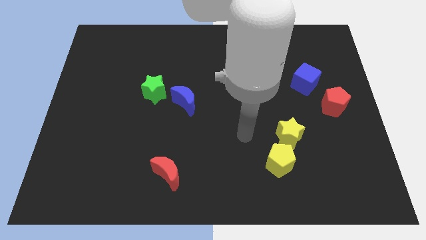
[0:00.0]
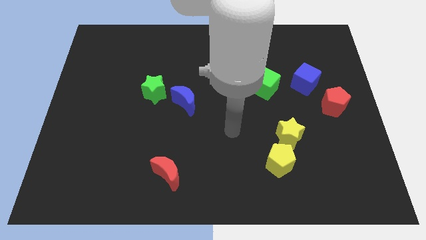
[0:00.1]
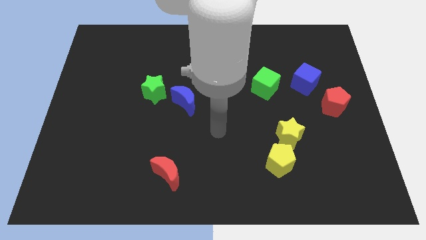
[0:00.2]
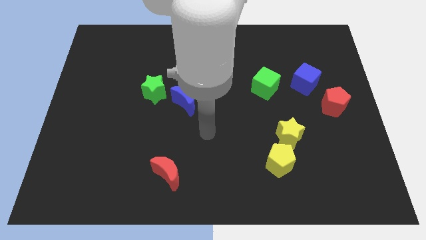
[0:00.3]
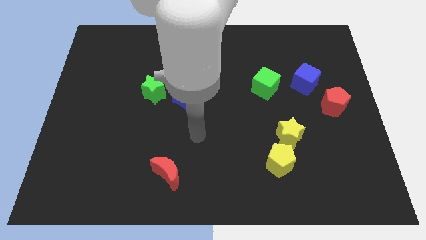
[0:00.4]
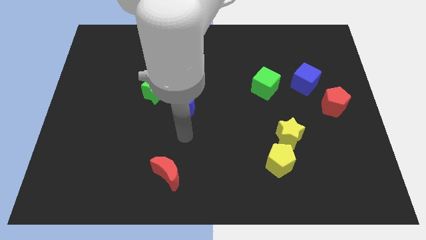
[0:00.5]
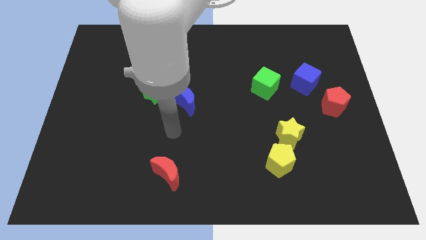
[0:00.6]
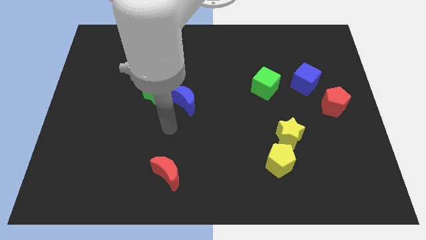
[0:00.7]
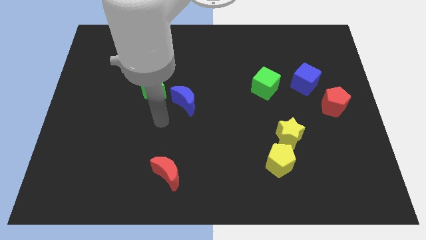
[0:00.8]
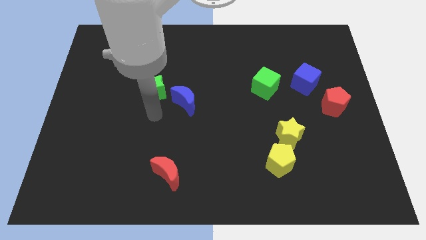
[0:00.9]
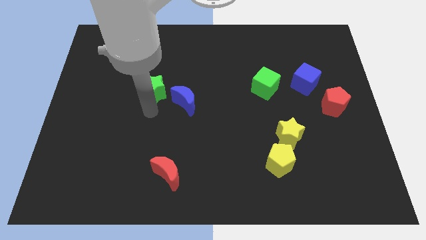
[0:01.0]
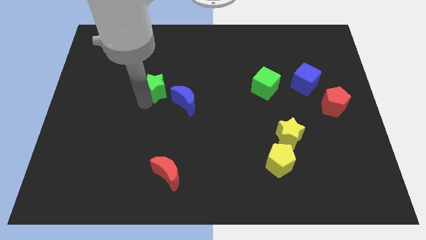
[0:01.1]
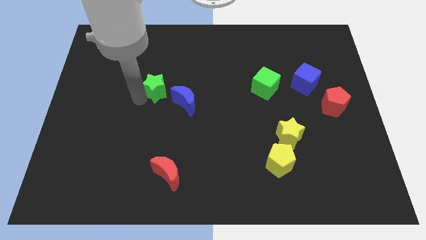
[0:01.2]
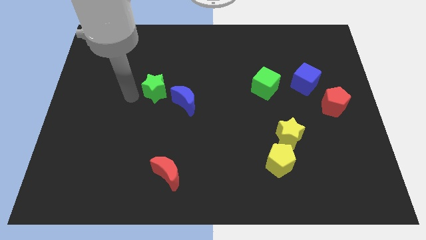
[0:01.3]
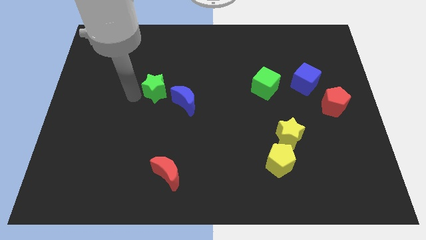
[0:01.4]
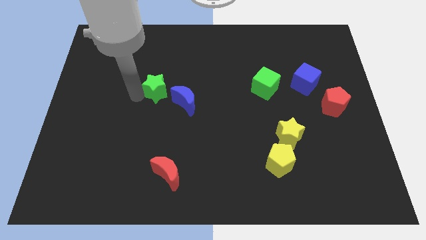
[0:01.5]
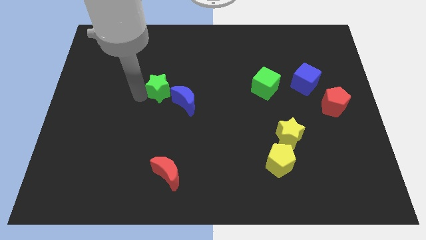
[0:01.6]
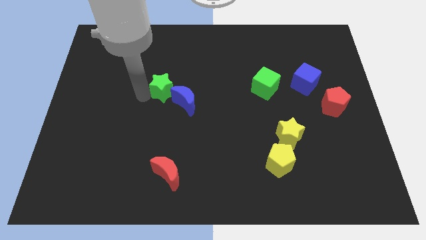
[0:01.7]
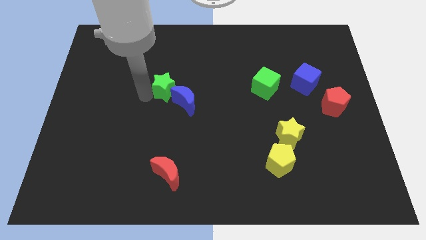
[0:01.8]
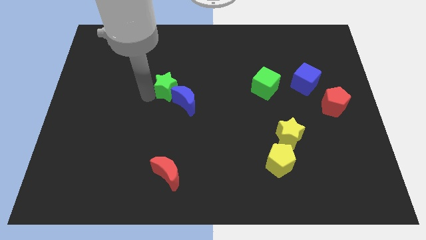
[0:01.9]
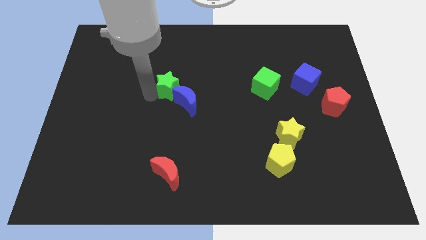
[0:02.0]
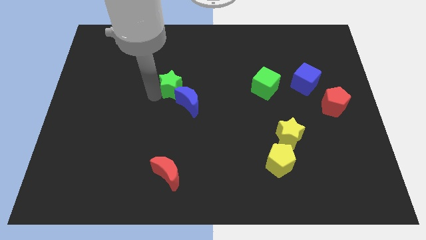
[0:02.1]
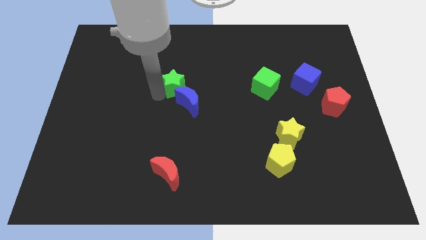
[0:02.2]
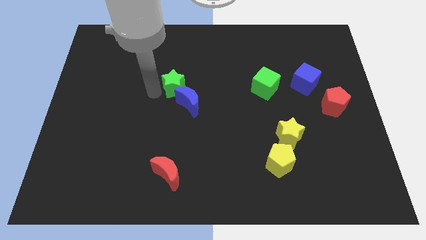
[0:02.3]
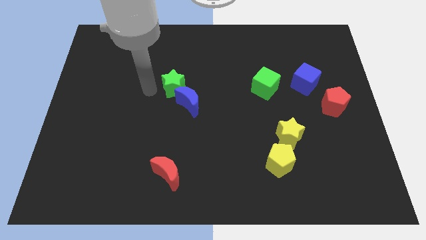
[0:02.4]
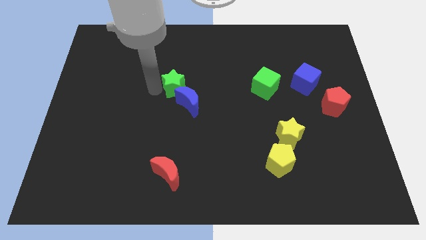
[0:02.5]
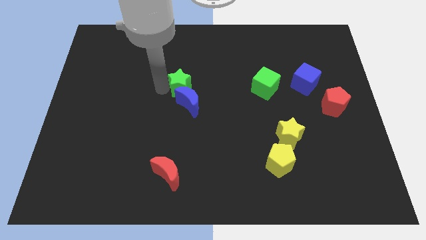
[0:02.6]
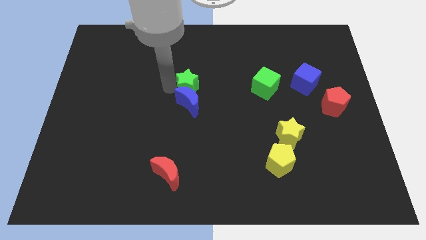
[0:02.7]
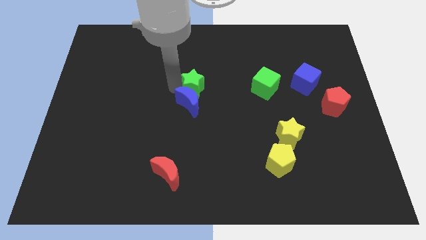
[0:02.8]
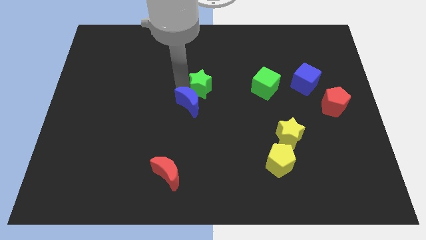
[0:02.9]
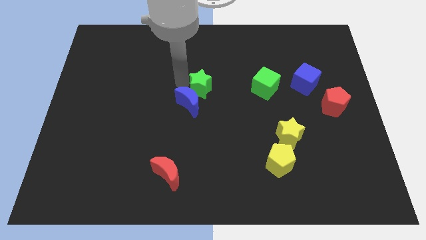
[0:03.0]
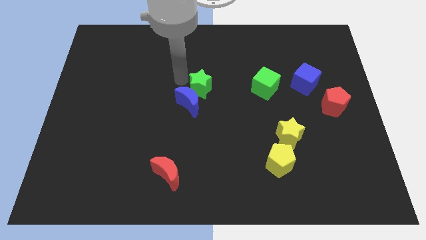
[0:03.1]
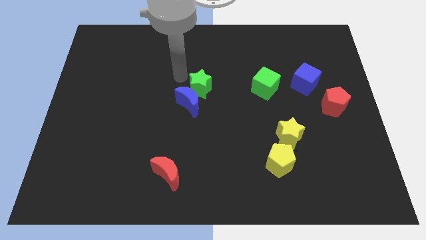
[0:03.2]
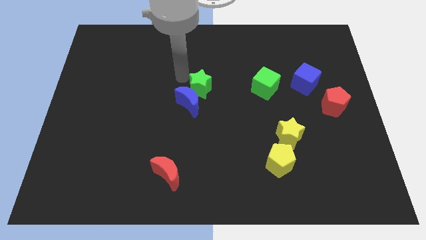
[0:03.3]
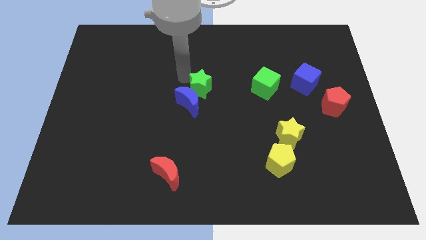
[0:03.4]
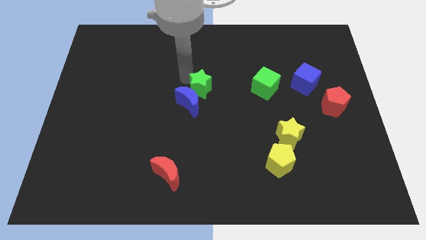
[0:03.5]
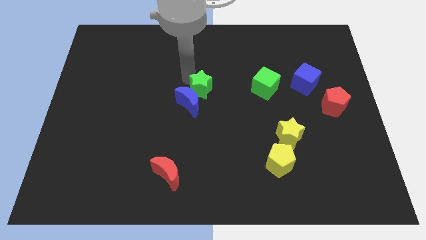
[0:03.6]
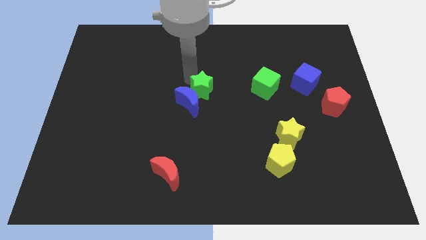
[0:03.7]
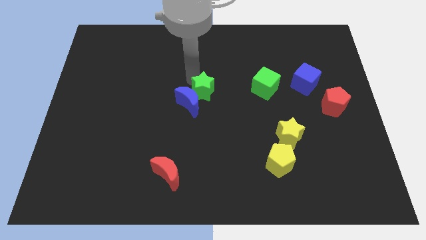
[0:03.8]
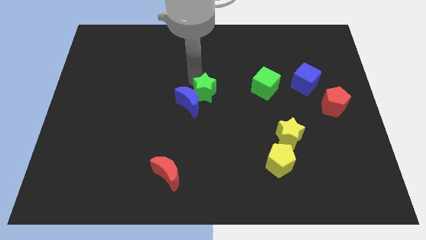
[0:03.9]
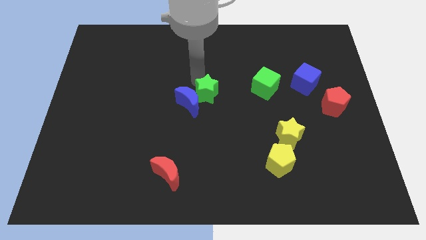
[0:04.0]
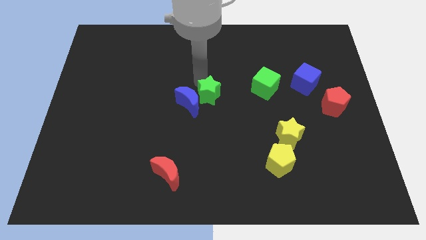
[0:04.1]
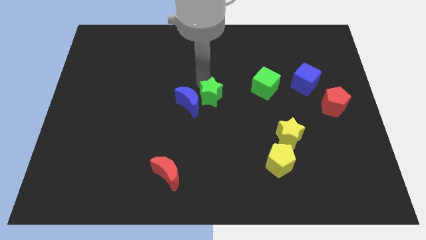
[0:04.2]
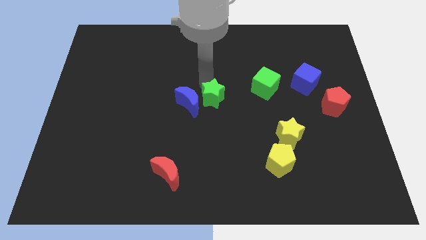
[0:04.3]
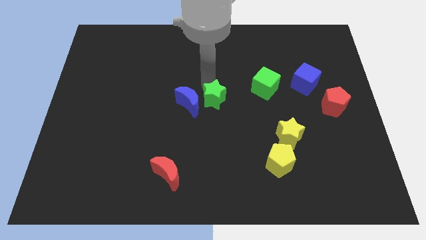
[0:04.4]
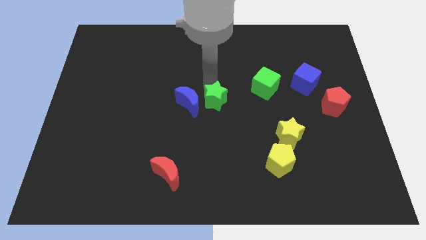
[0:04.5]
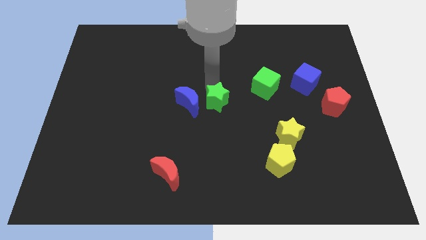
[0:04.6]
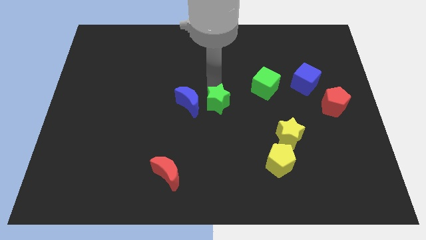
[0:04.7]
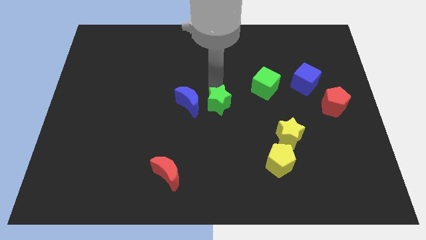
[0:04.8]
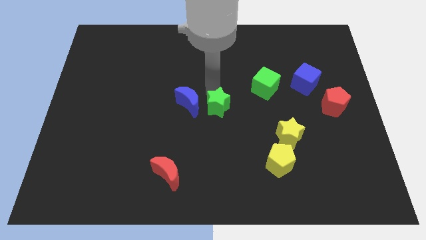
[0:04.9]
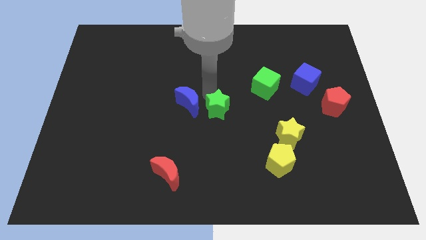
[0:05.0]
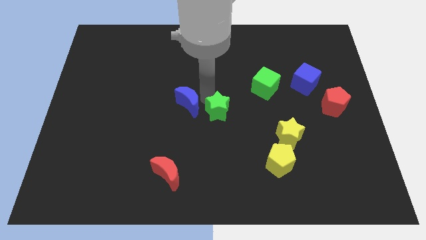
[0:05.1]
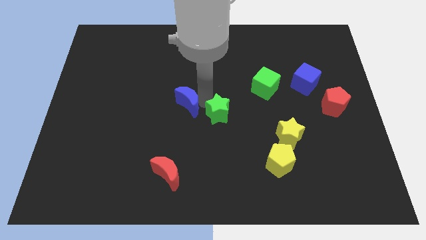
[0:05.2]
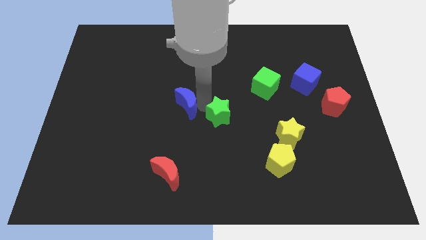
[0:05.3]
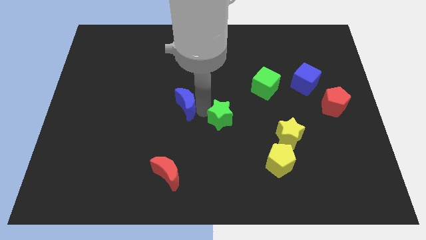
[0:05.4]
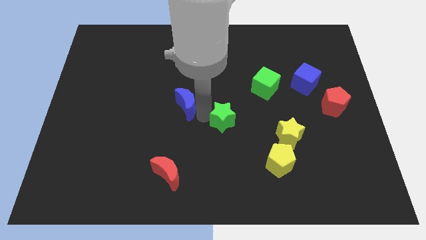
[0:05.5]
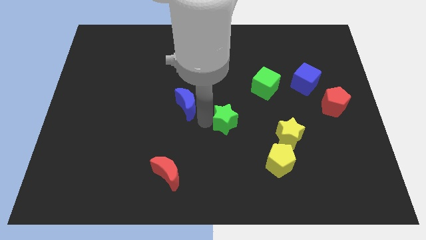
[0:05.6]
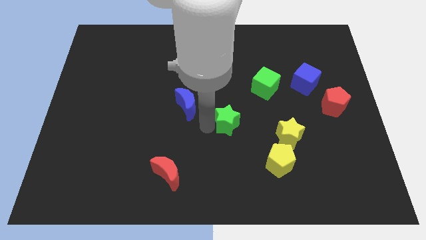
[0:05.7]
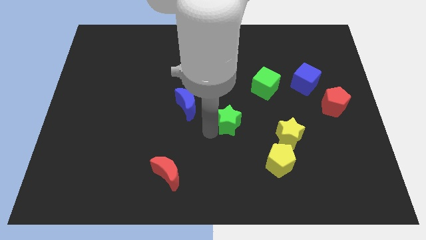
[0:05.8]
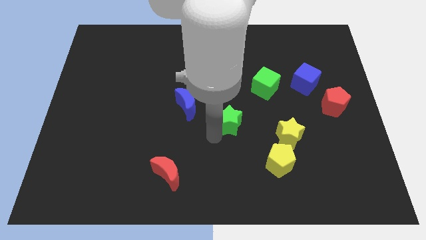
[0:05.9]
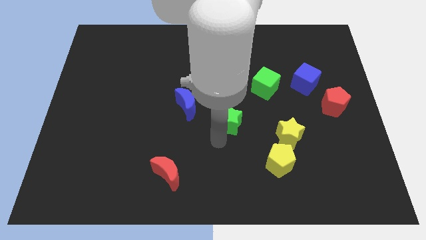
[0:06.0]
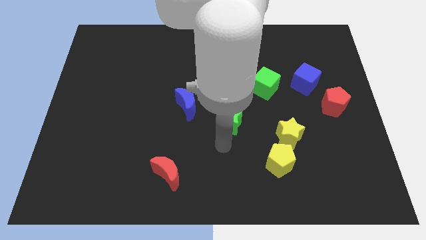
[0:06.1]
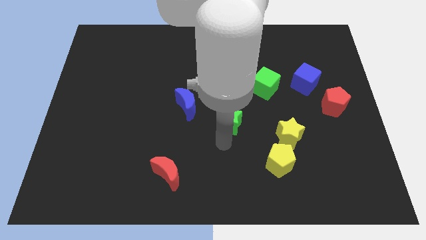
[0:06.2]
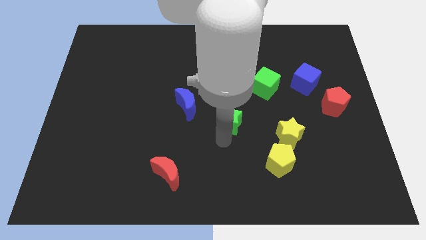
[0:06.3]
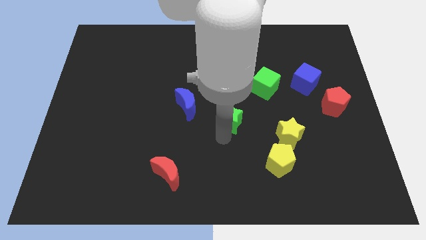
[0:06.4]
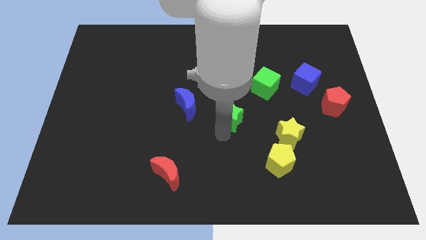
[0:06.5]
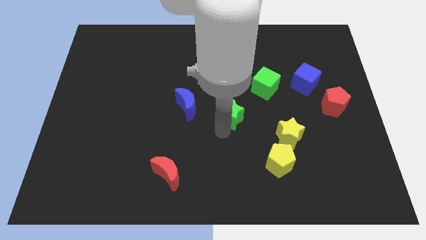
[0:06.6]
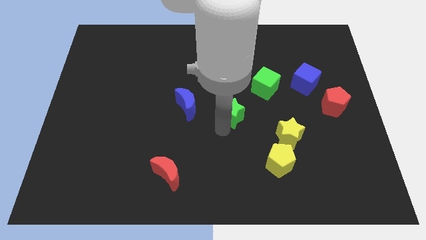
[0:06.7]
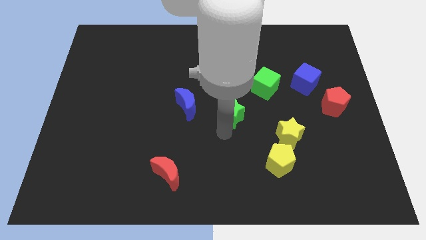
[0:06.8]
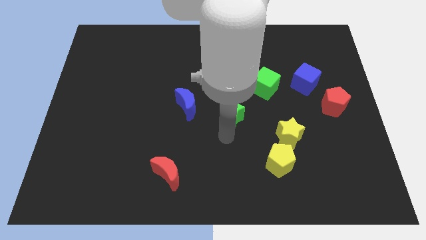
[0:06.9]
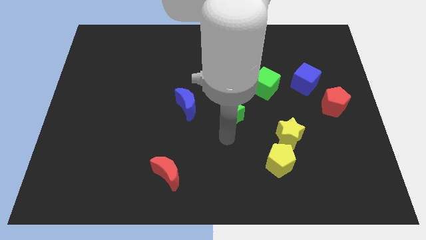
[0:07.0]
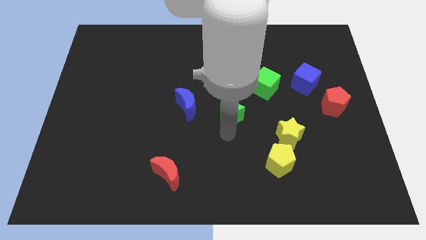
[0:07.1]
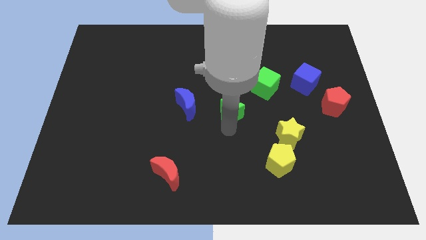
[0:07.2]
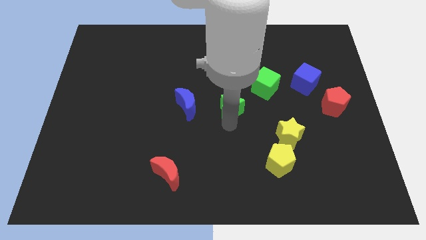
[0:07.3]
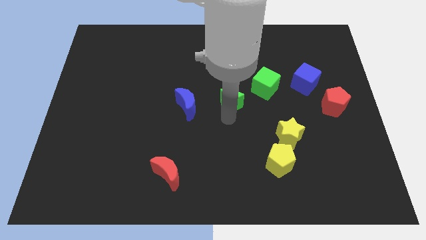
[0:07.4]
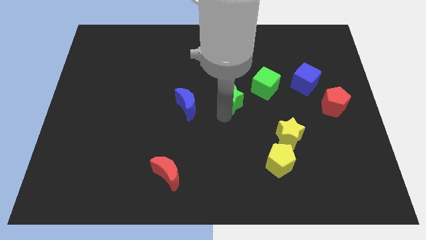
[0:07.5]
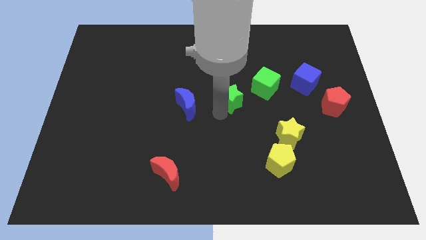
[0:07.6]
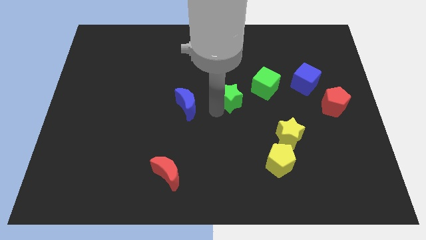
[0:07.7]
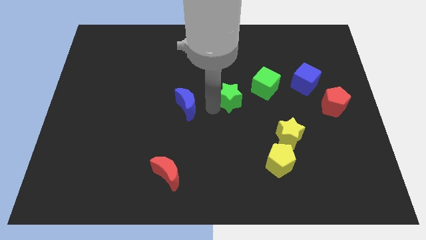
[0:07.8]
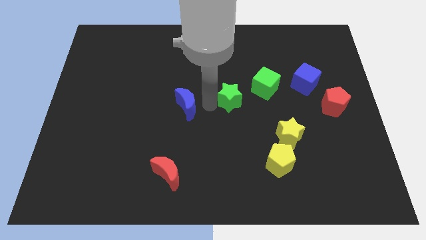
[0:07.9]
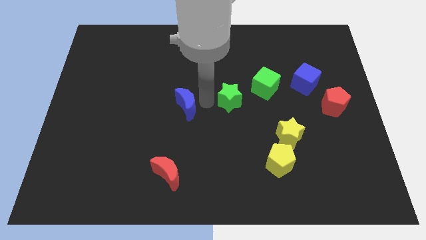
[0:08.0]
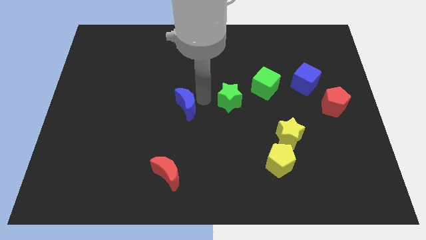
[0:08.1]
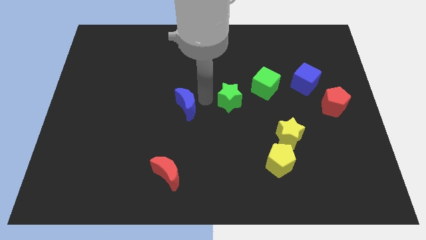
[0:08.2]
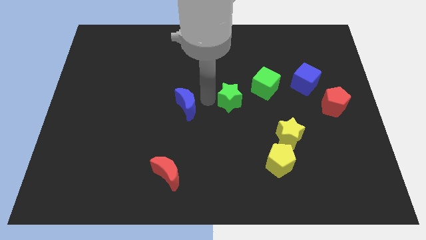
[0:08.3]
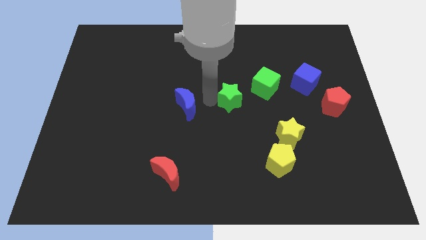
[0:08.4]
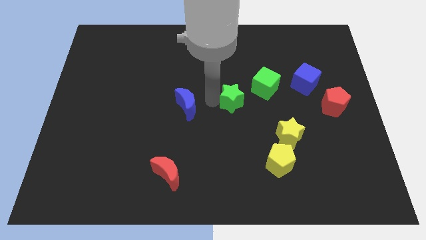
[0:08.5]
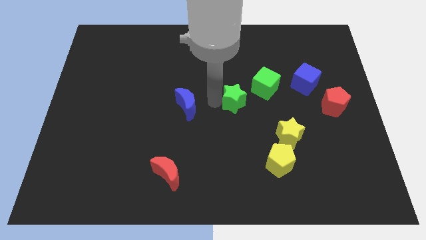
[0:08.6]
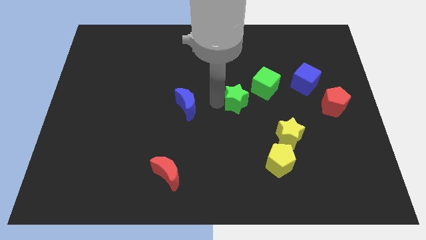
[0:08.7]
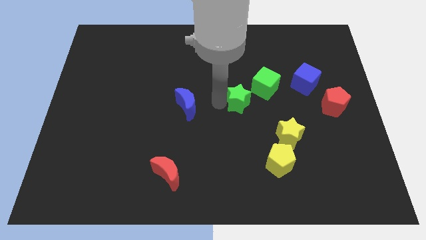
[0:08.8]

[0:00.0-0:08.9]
slide the green star to the right
